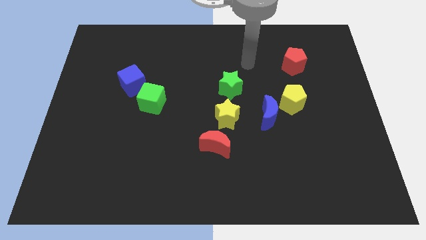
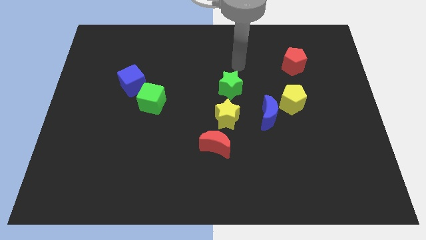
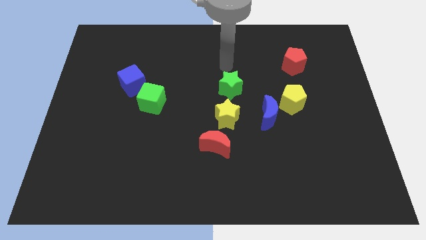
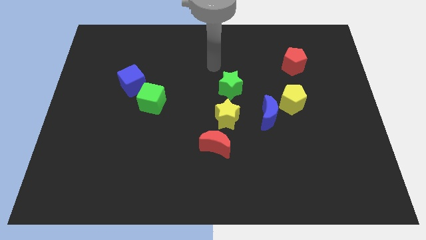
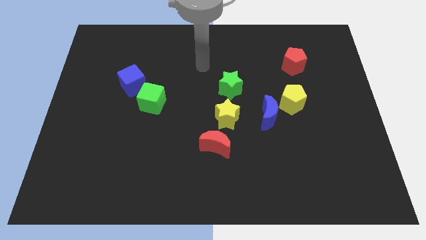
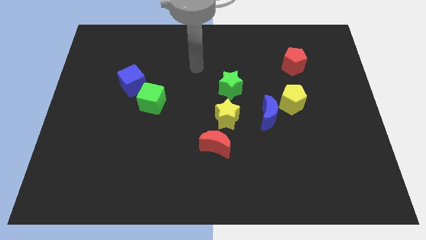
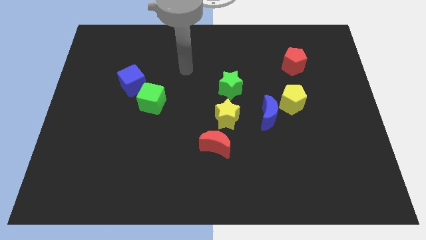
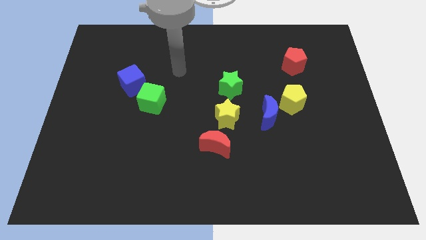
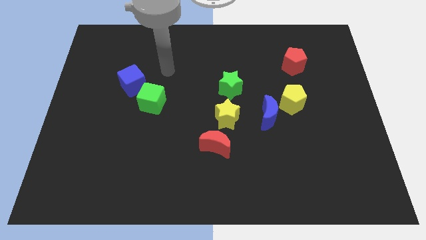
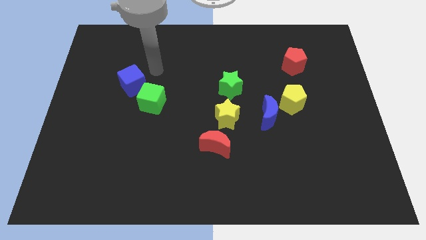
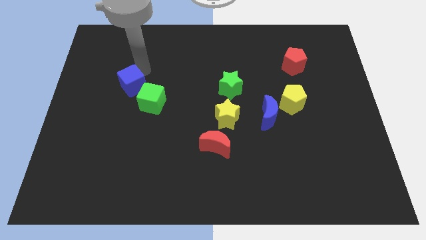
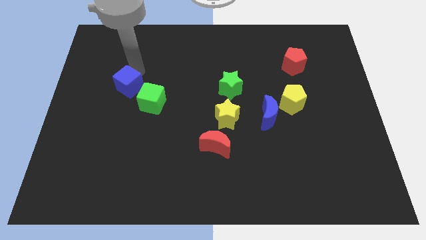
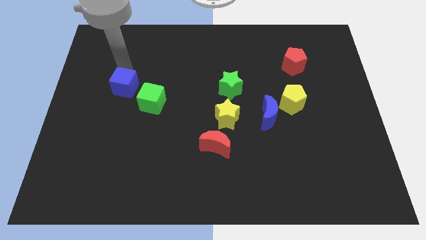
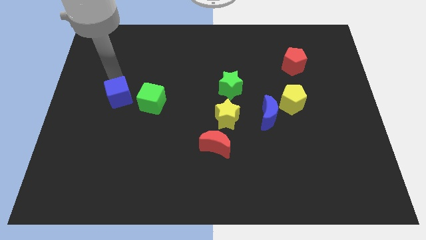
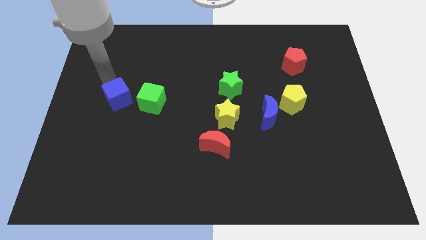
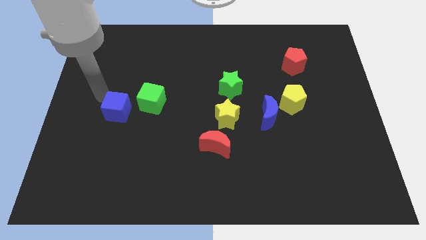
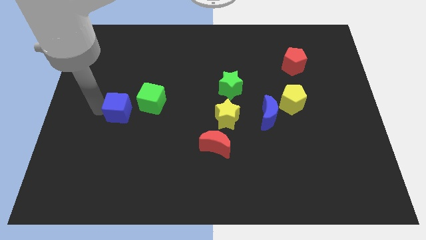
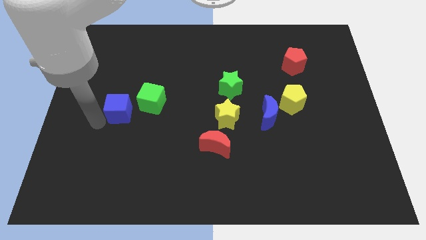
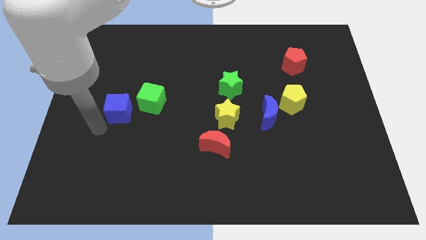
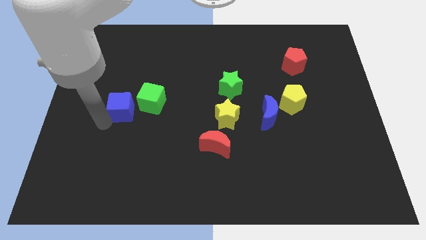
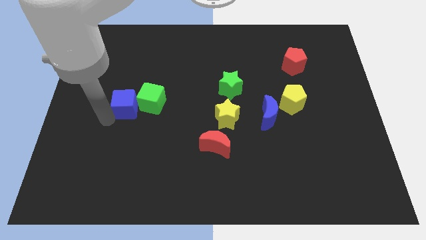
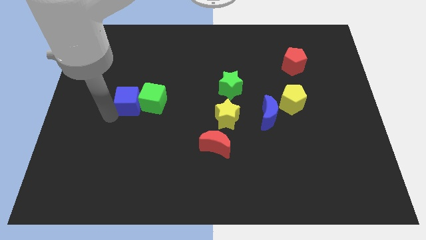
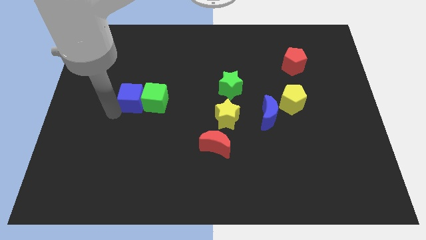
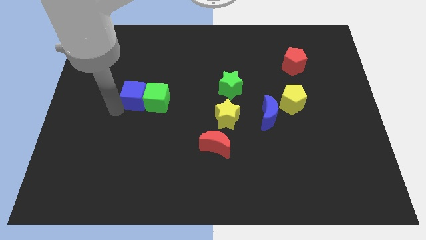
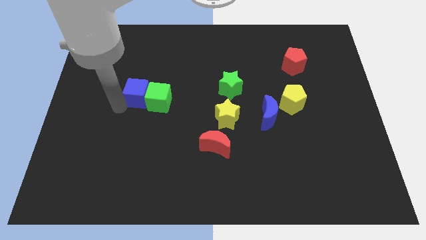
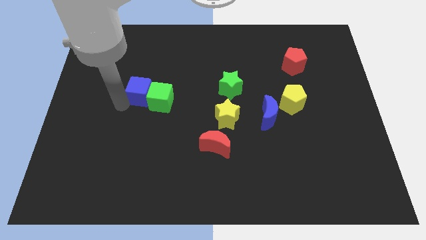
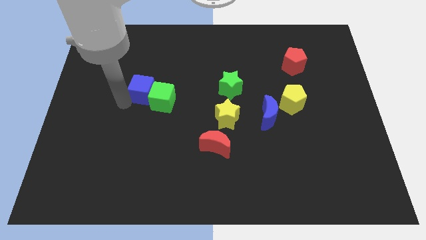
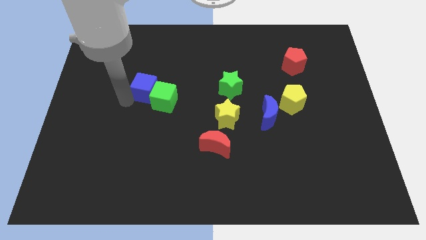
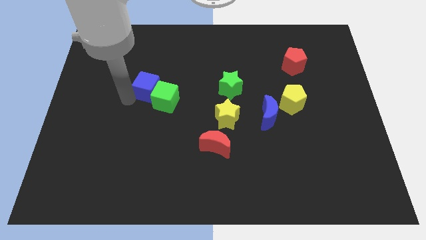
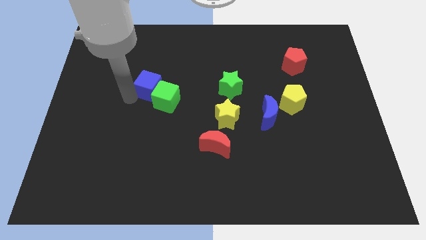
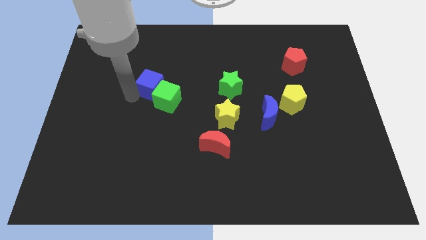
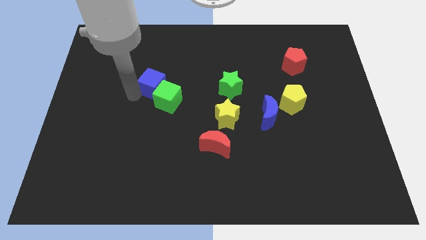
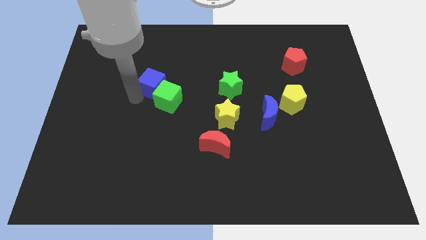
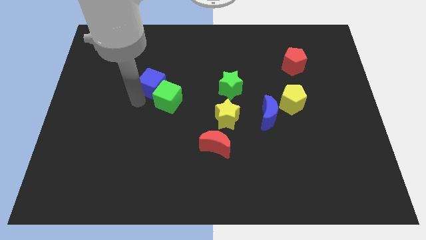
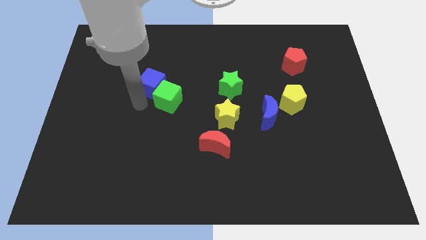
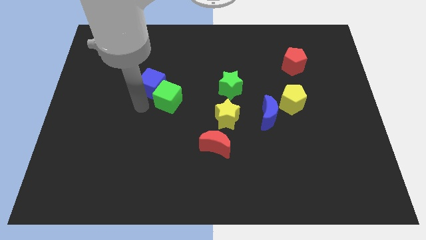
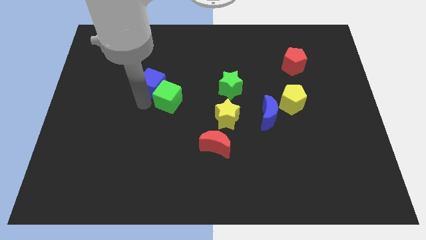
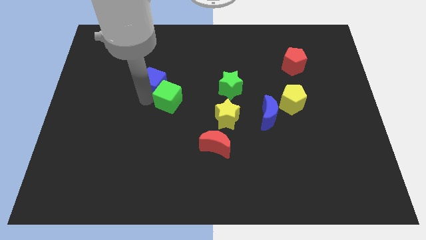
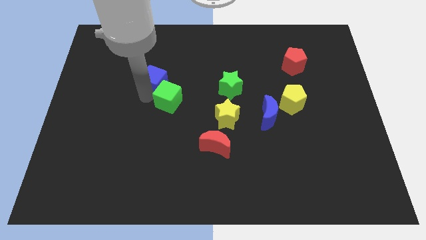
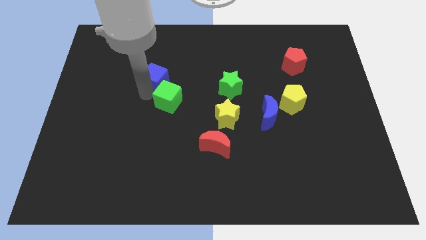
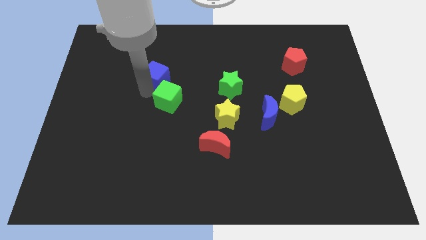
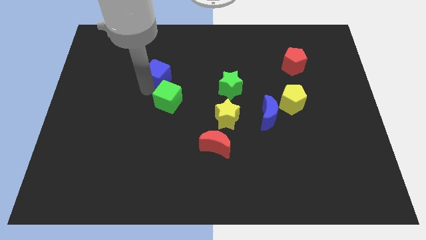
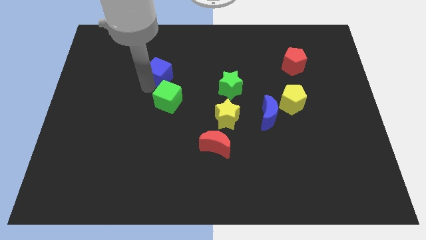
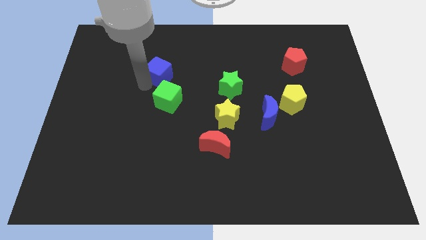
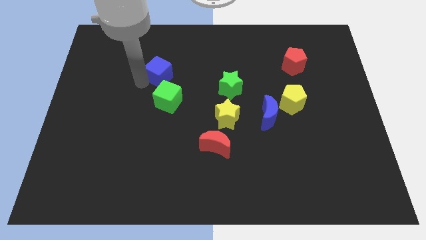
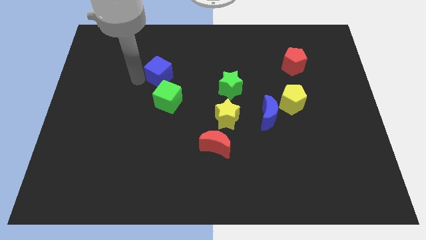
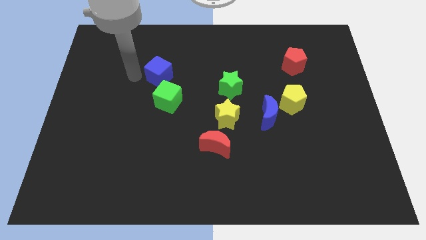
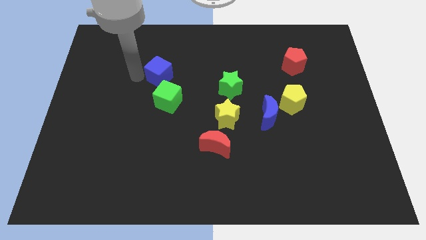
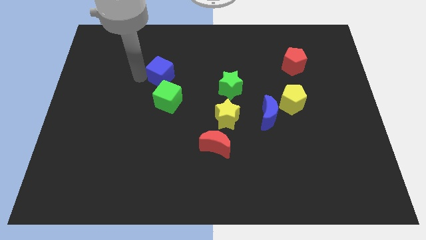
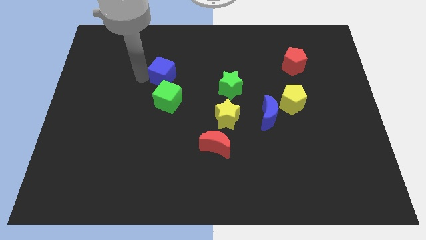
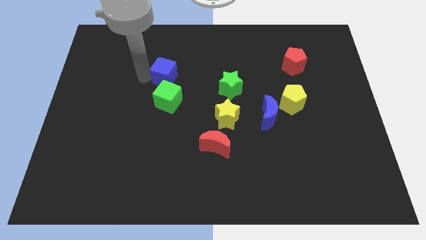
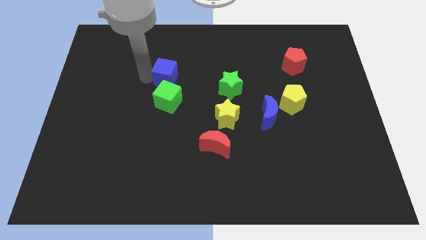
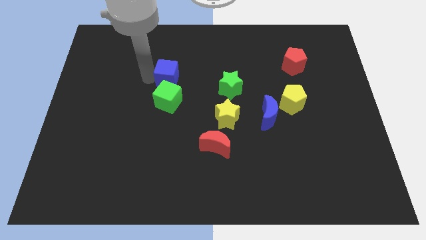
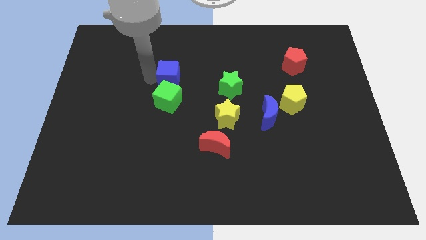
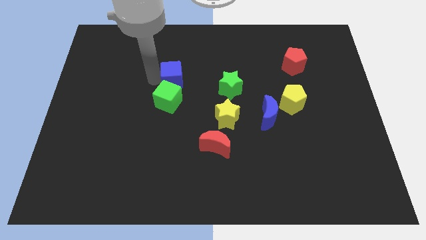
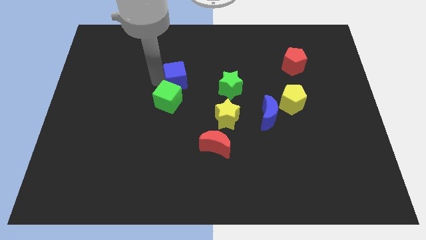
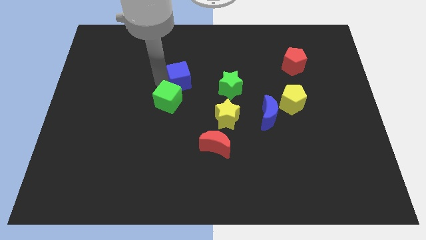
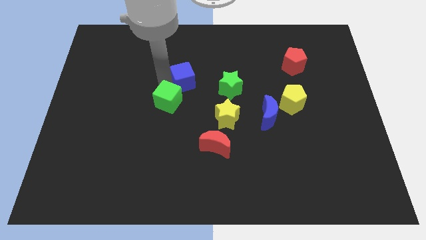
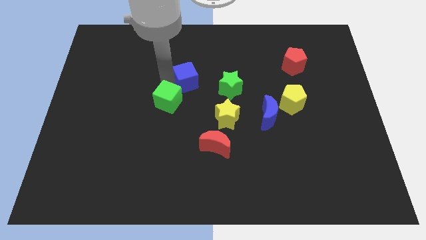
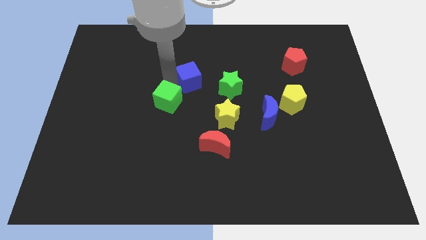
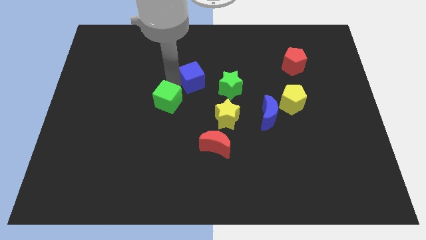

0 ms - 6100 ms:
move the blue cube diagonally up and to the left of the green star

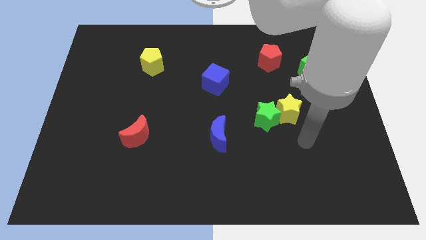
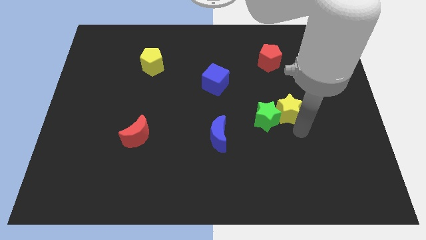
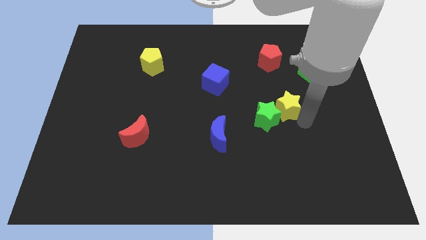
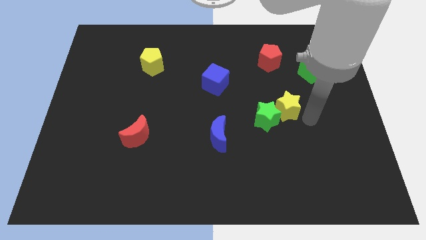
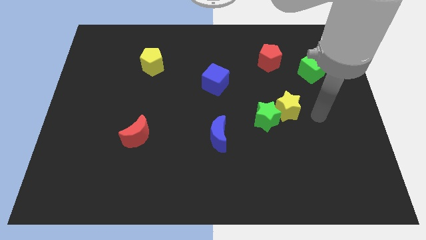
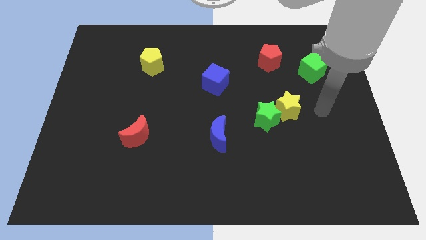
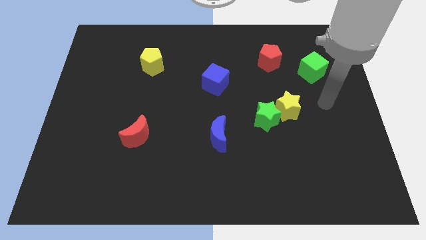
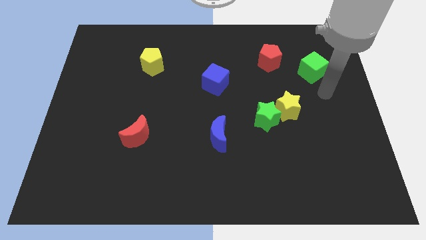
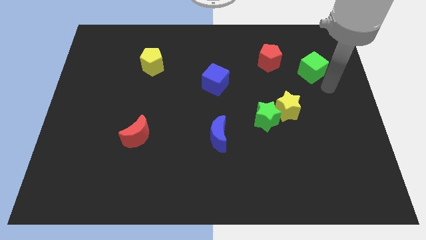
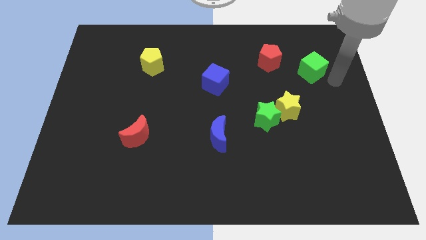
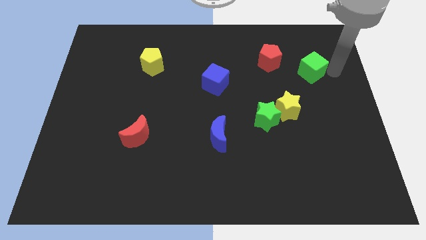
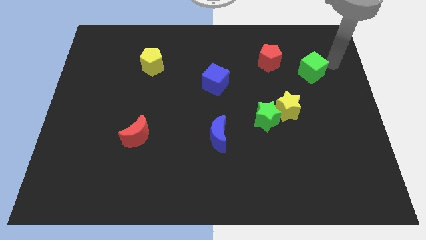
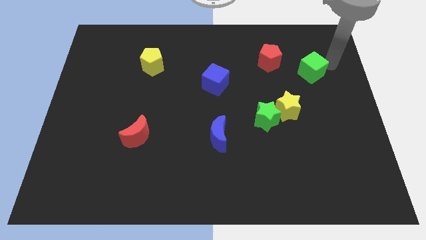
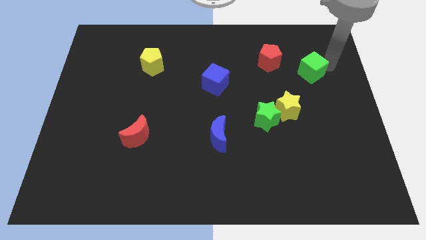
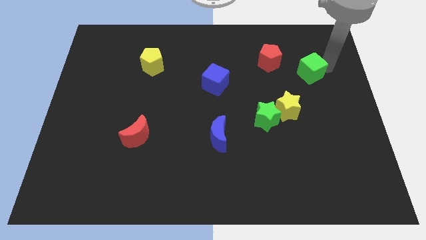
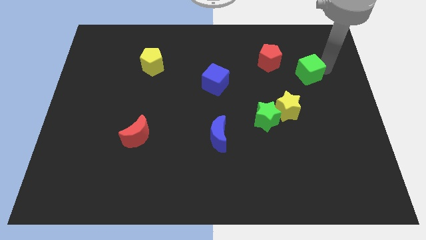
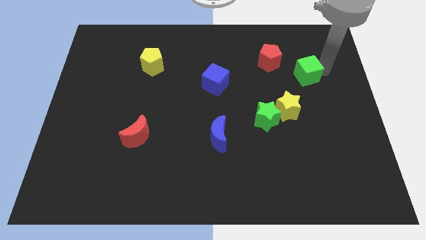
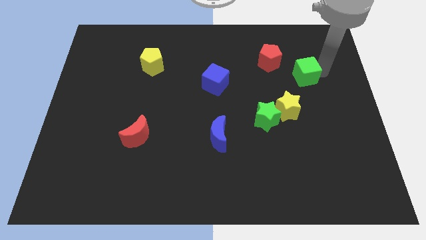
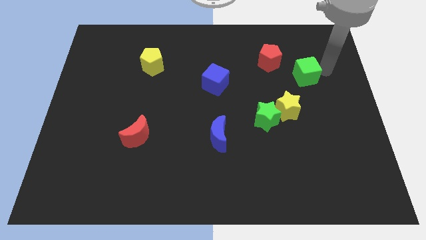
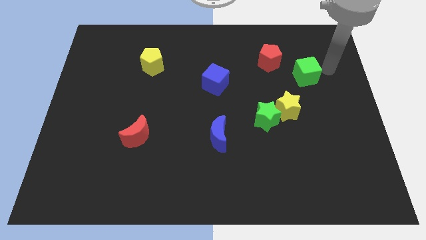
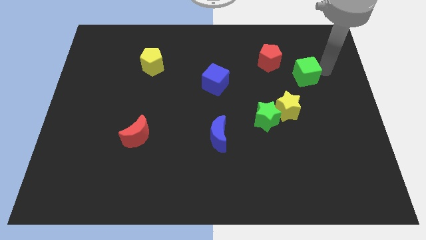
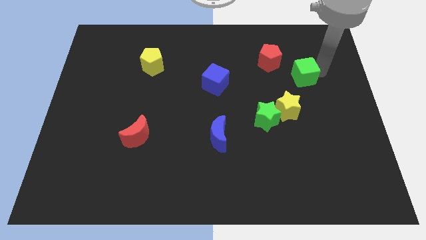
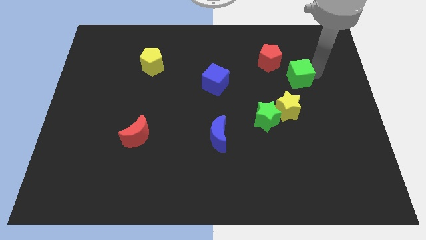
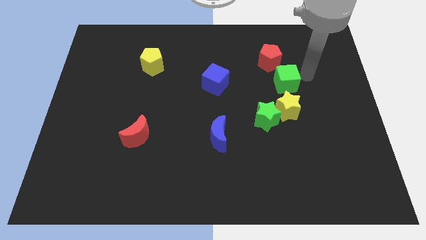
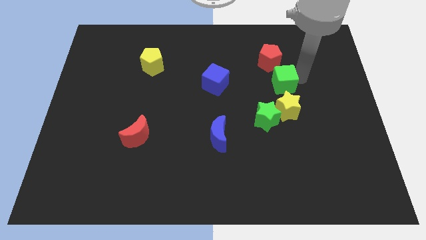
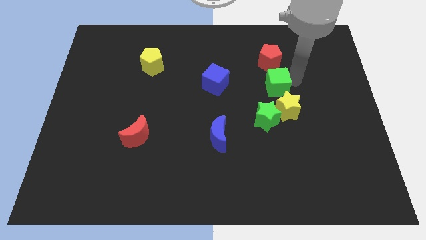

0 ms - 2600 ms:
put the green cube just right of the blue cube
